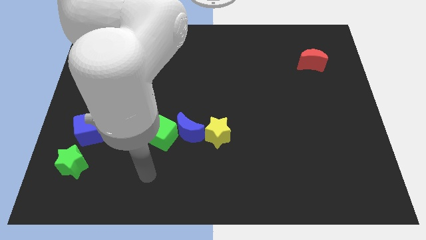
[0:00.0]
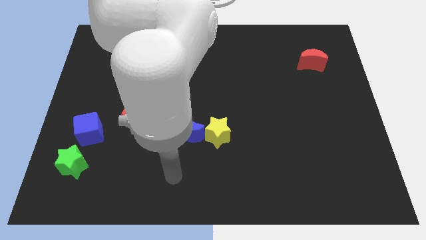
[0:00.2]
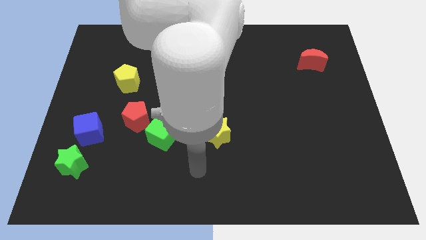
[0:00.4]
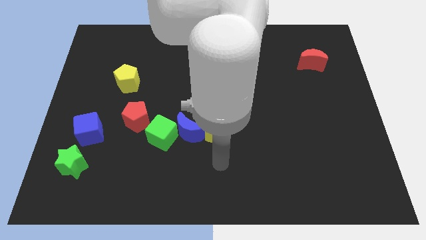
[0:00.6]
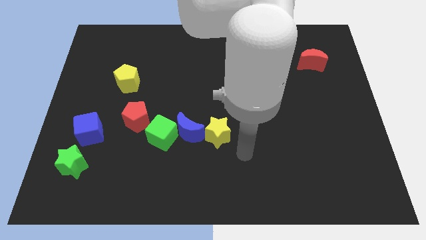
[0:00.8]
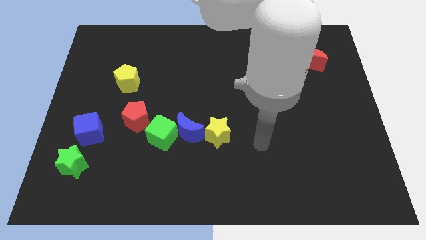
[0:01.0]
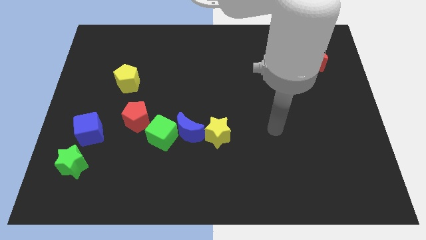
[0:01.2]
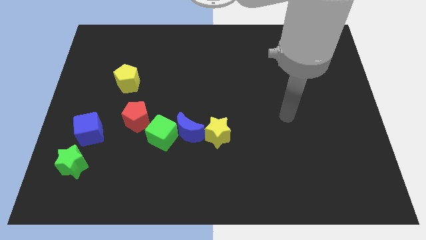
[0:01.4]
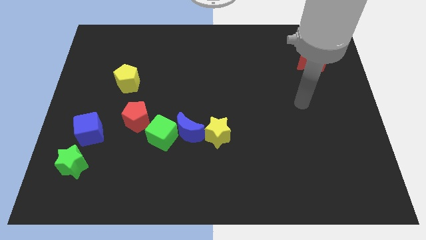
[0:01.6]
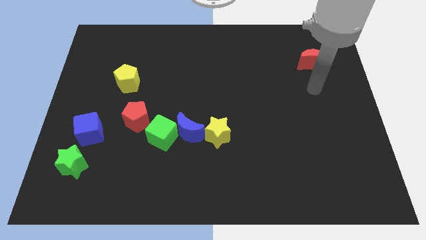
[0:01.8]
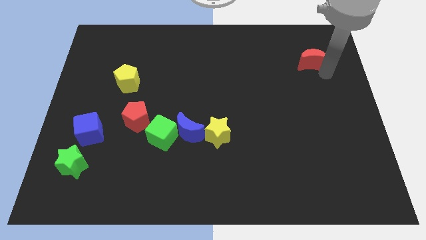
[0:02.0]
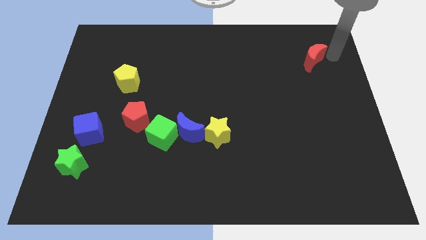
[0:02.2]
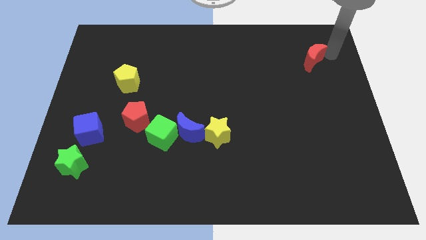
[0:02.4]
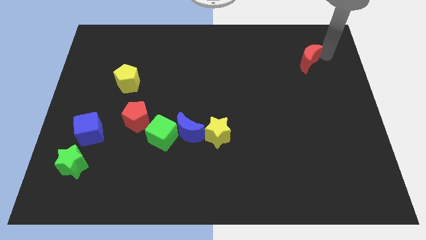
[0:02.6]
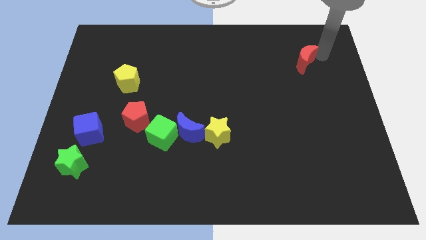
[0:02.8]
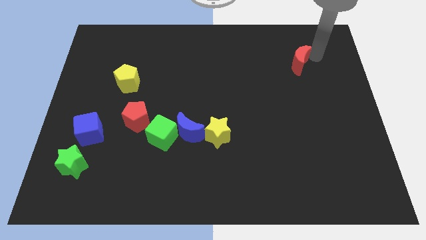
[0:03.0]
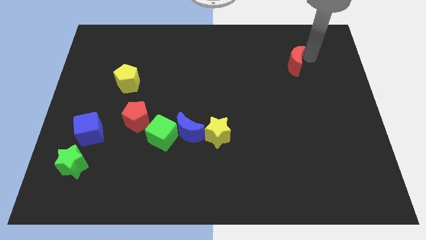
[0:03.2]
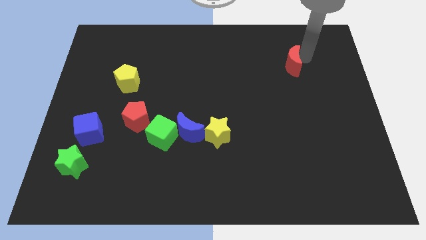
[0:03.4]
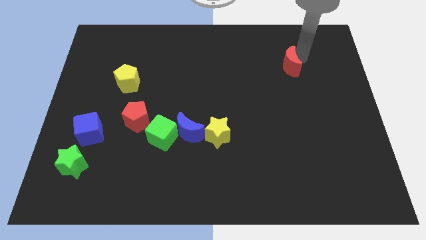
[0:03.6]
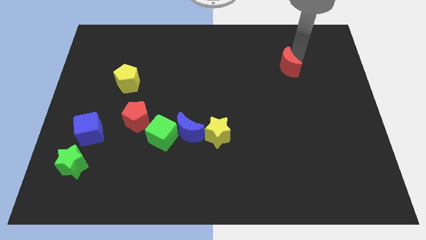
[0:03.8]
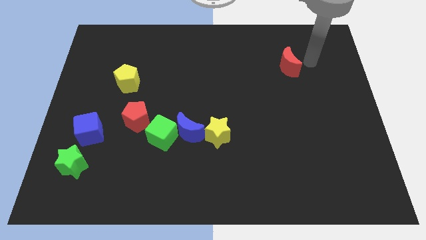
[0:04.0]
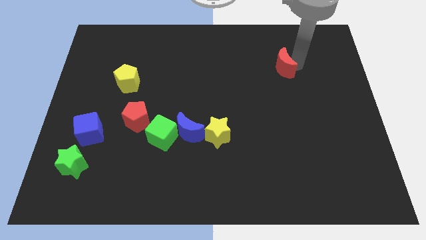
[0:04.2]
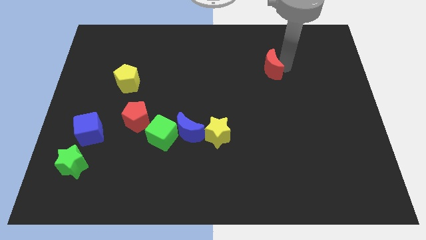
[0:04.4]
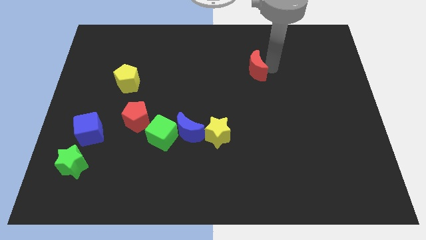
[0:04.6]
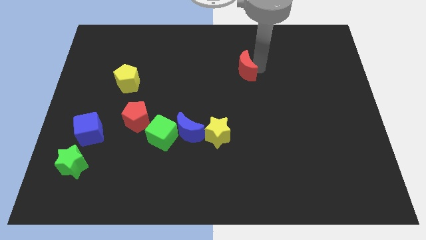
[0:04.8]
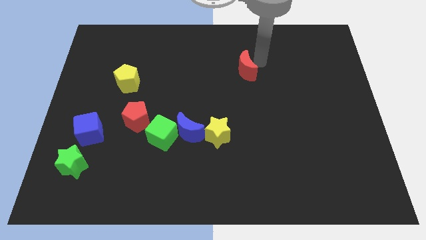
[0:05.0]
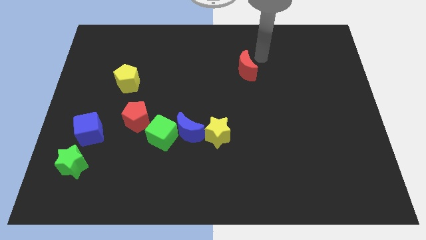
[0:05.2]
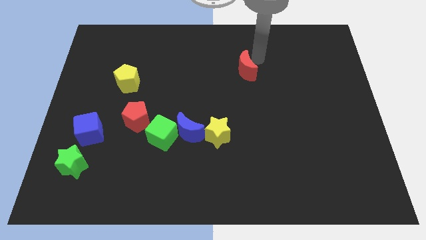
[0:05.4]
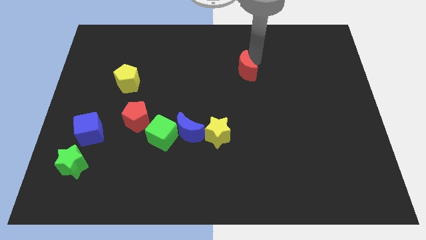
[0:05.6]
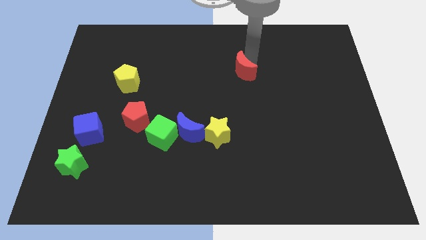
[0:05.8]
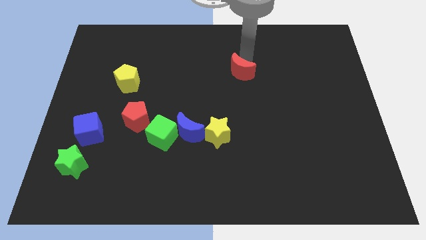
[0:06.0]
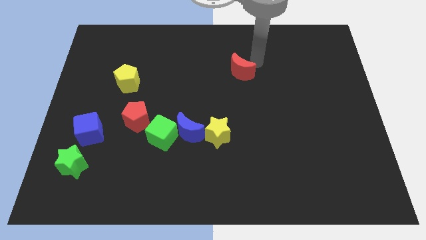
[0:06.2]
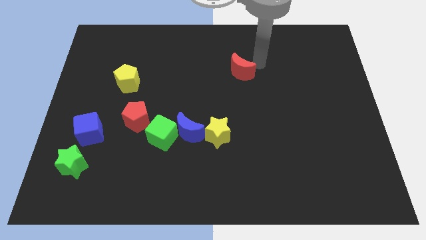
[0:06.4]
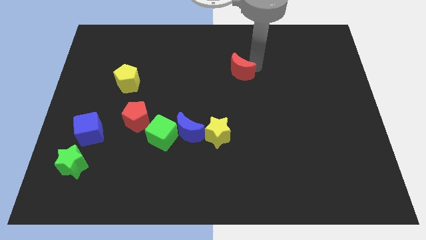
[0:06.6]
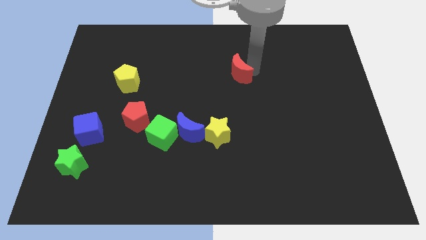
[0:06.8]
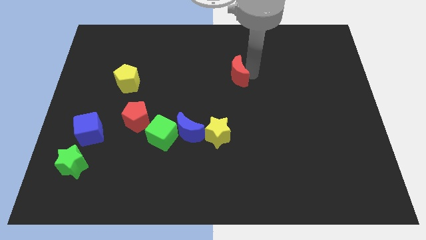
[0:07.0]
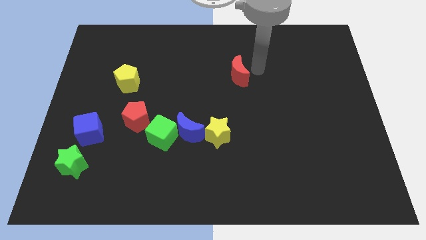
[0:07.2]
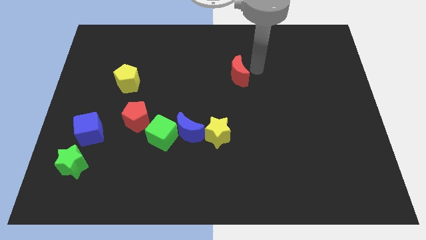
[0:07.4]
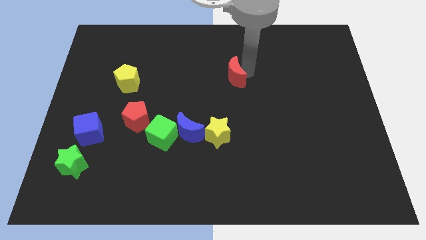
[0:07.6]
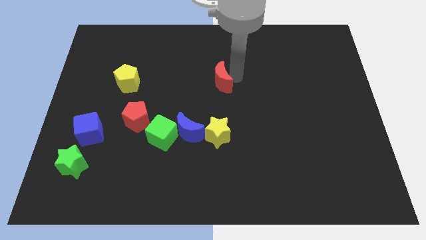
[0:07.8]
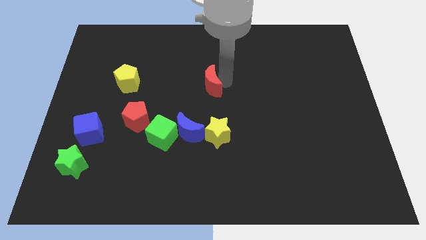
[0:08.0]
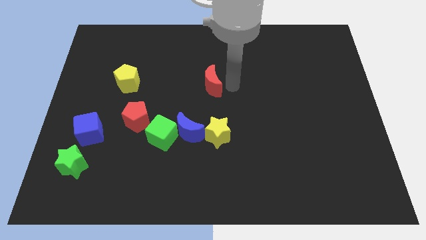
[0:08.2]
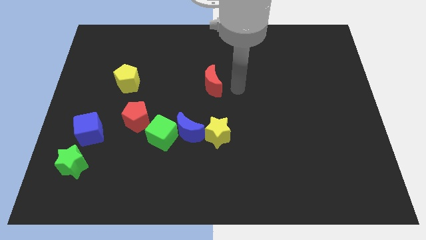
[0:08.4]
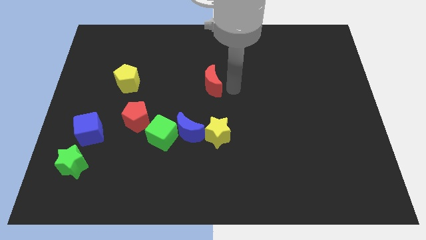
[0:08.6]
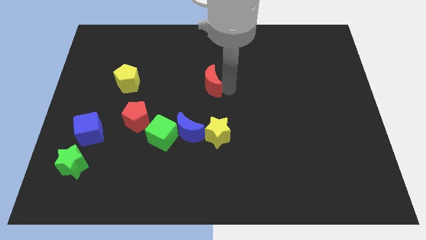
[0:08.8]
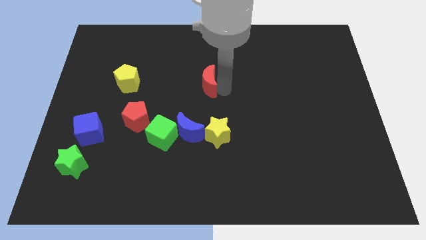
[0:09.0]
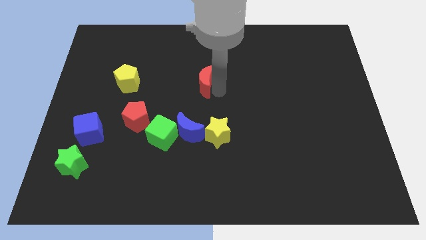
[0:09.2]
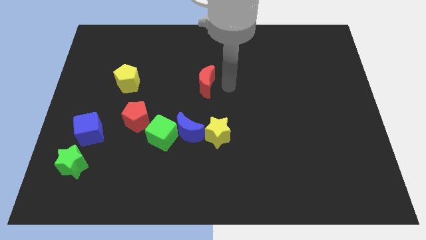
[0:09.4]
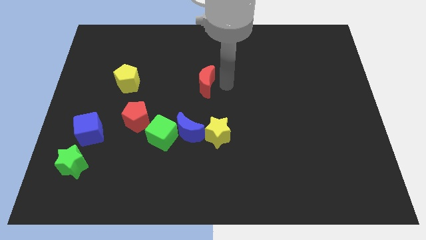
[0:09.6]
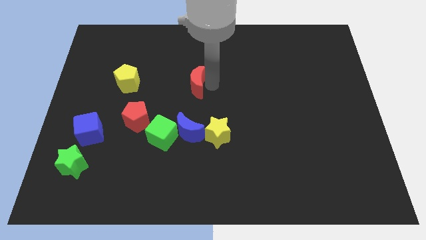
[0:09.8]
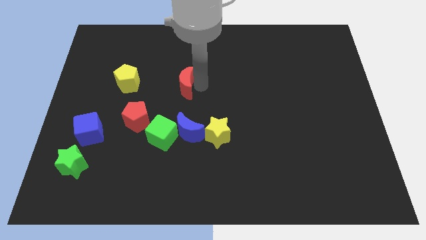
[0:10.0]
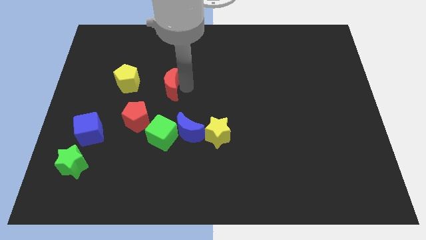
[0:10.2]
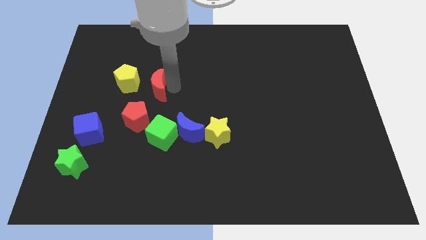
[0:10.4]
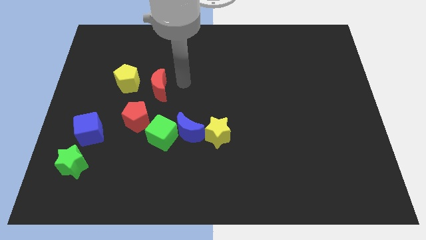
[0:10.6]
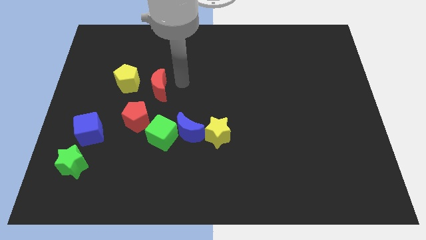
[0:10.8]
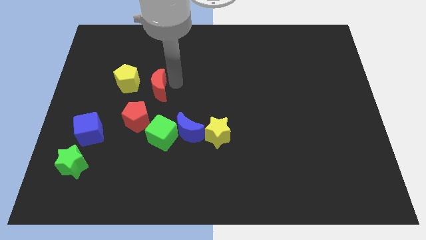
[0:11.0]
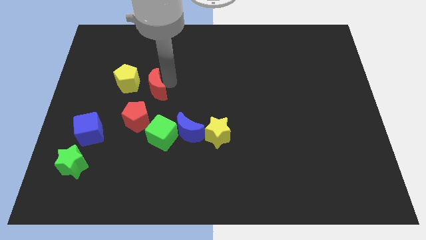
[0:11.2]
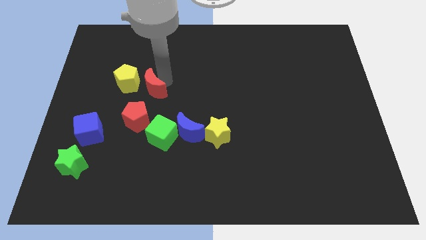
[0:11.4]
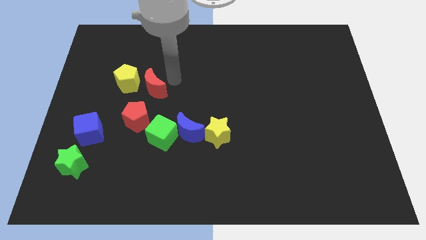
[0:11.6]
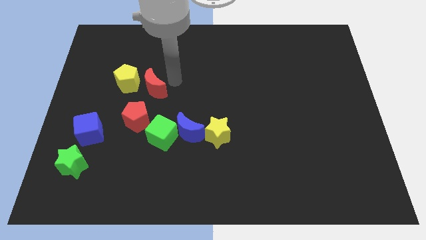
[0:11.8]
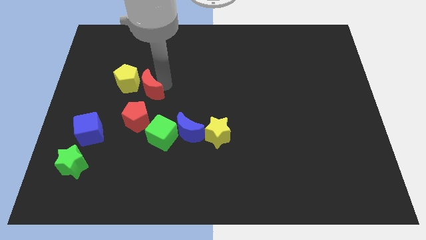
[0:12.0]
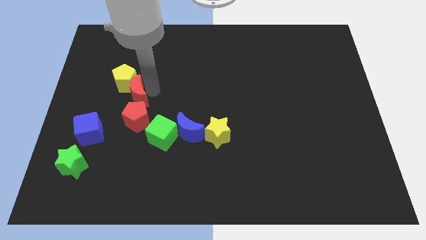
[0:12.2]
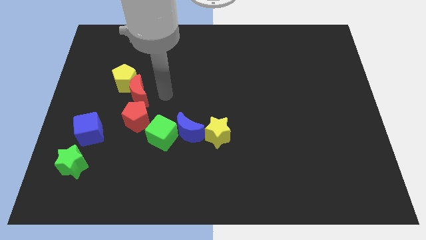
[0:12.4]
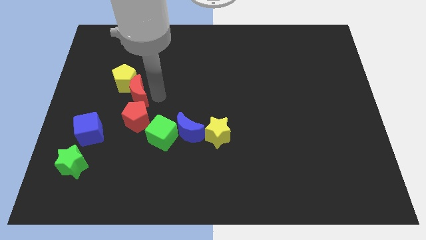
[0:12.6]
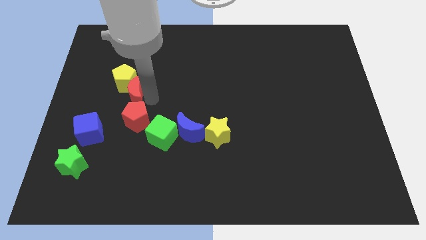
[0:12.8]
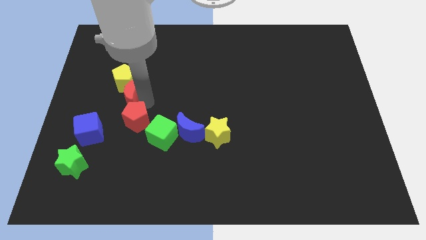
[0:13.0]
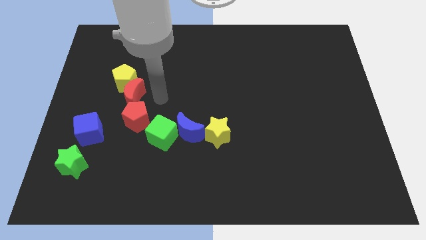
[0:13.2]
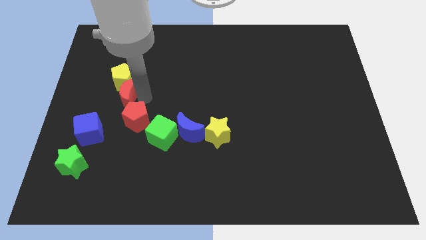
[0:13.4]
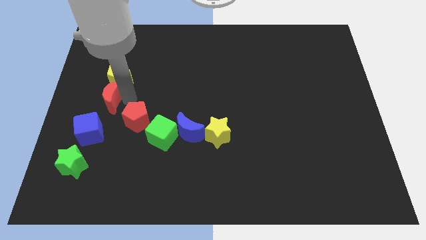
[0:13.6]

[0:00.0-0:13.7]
push the red moon to the top of the blue cube
